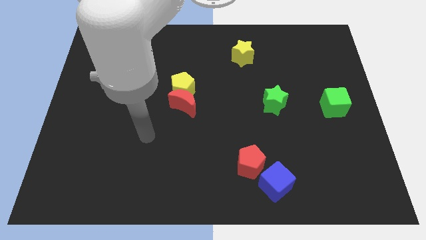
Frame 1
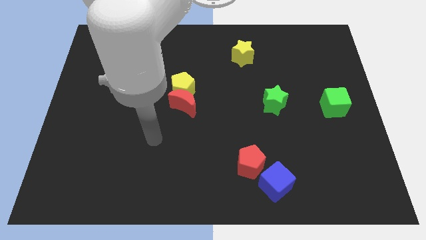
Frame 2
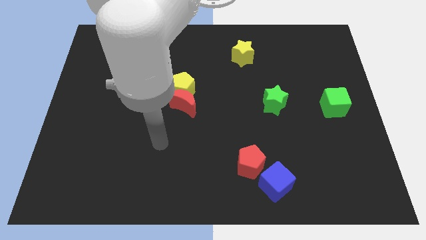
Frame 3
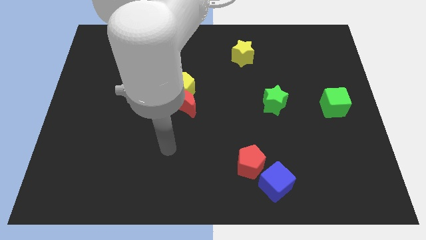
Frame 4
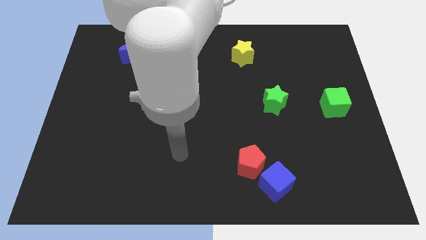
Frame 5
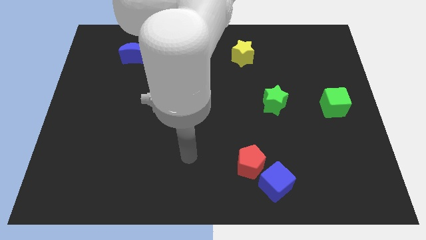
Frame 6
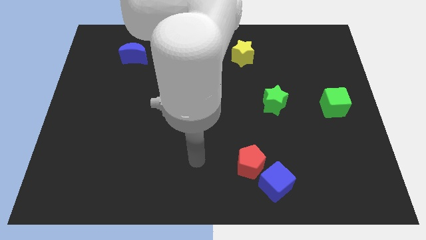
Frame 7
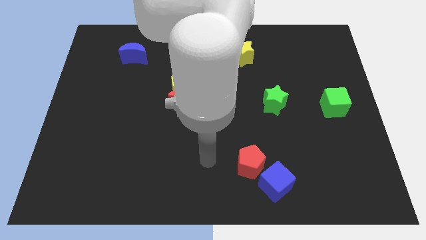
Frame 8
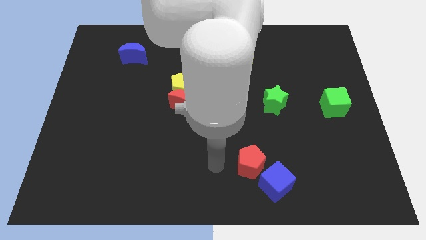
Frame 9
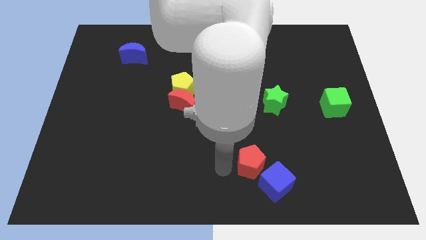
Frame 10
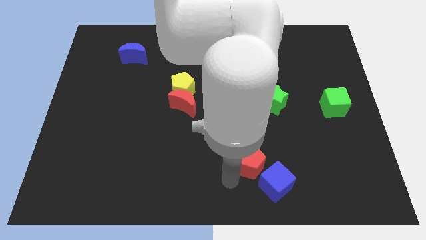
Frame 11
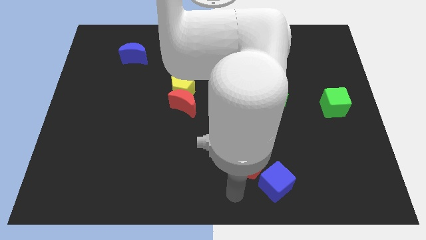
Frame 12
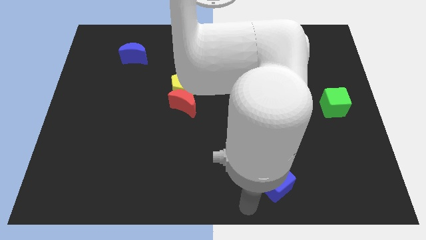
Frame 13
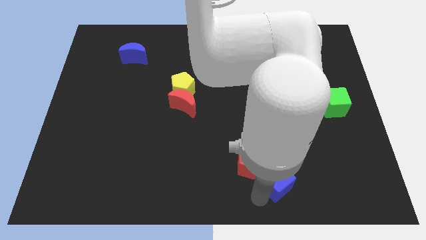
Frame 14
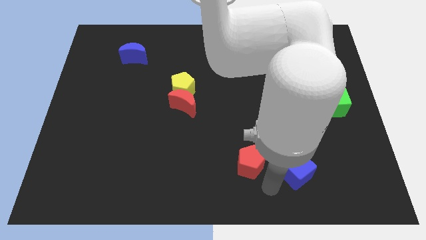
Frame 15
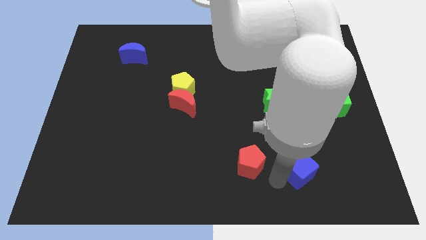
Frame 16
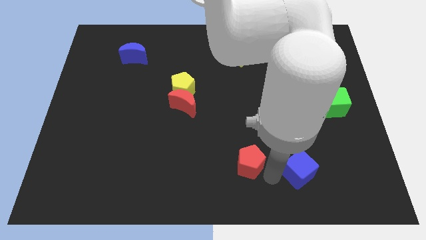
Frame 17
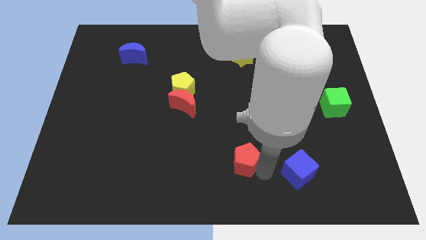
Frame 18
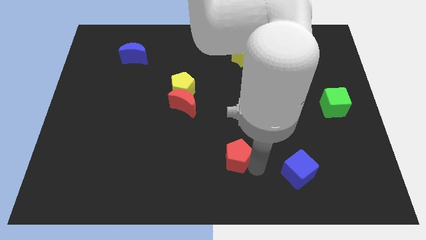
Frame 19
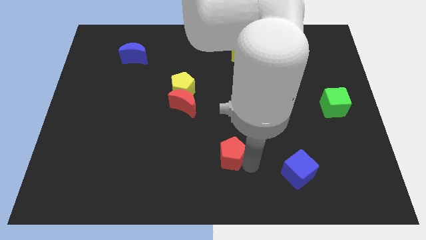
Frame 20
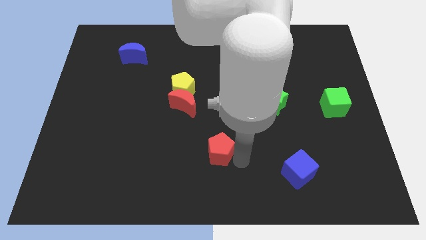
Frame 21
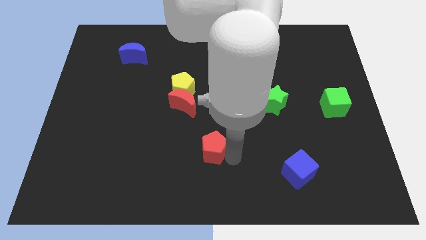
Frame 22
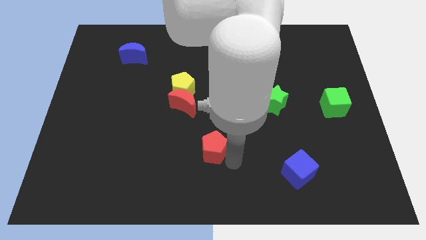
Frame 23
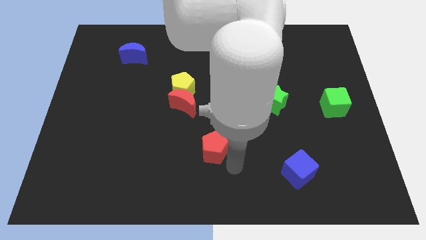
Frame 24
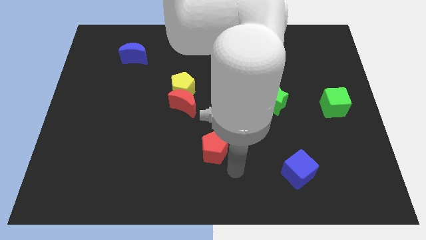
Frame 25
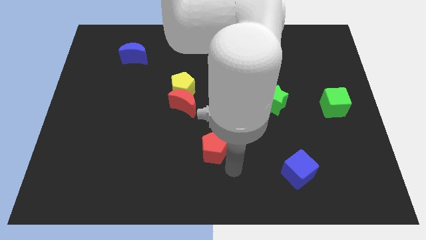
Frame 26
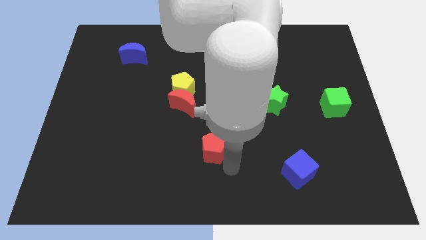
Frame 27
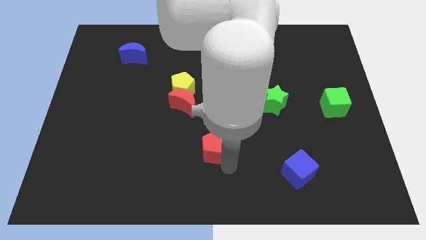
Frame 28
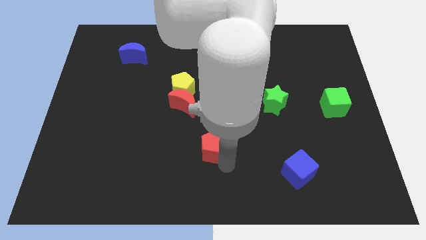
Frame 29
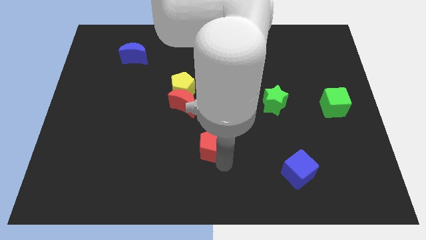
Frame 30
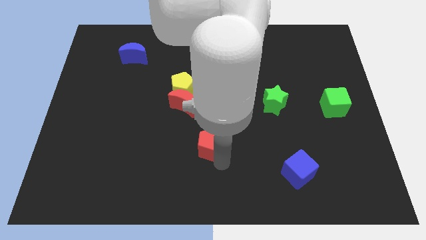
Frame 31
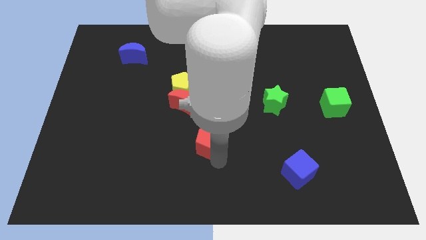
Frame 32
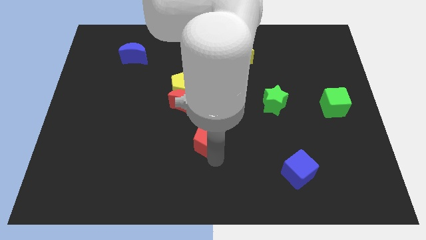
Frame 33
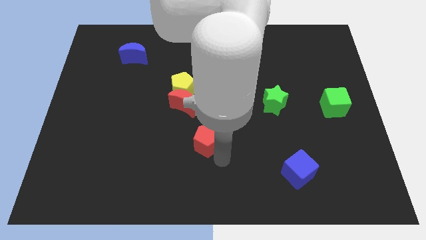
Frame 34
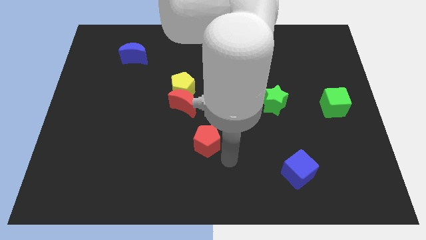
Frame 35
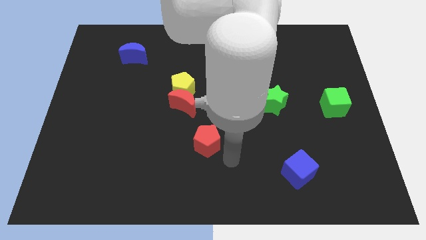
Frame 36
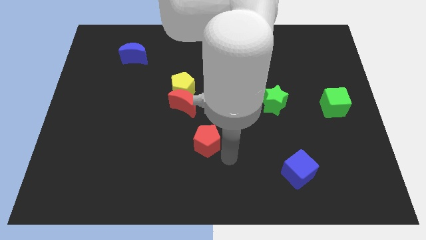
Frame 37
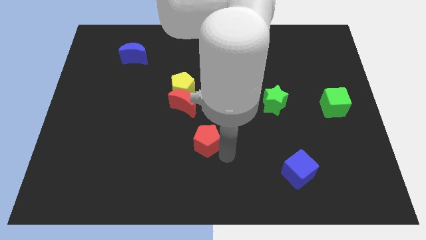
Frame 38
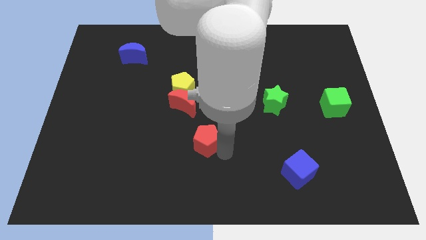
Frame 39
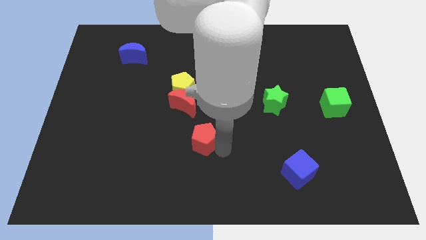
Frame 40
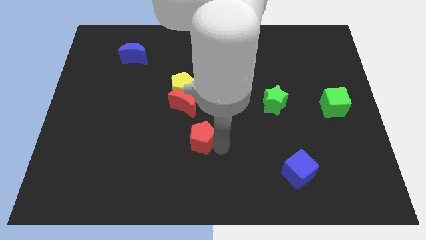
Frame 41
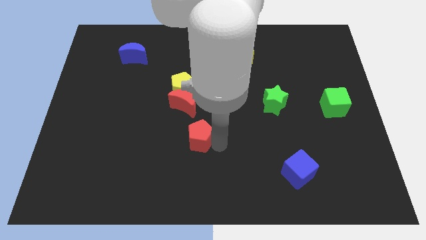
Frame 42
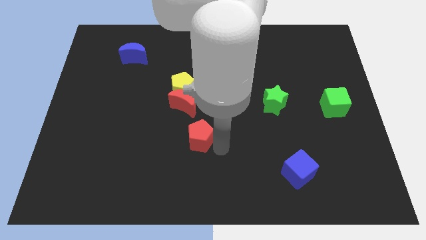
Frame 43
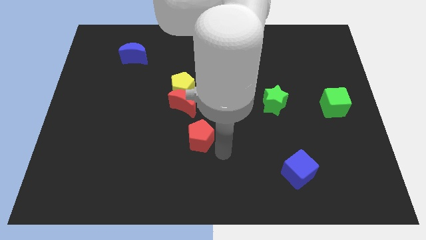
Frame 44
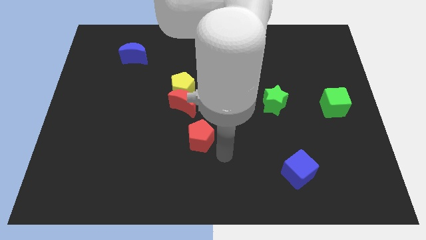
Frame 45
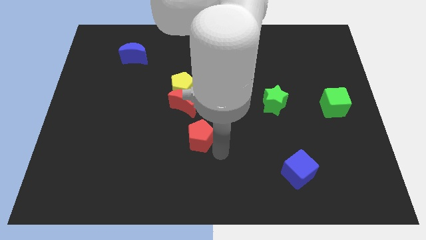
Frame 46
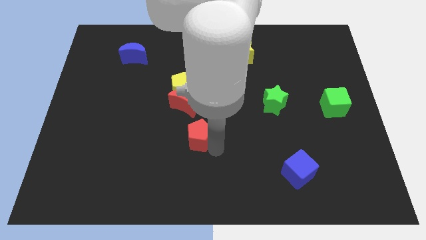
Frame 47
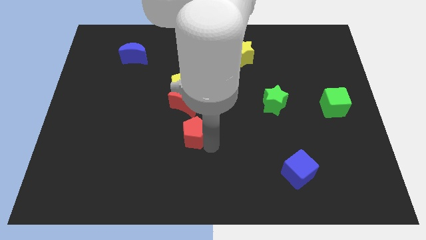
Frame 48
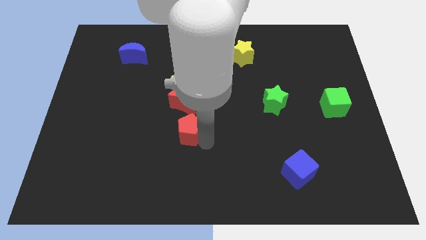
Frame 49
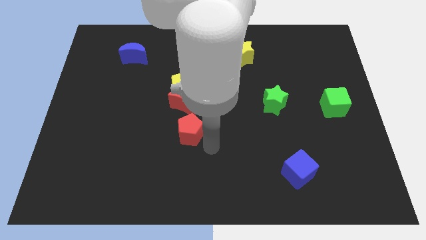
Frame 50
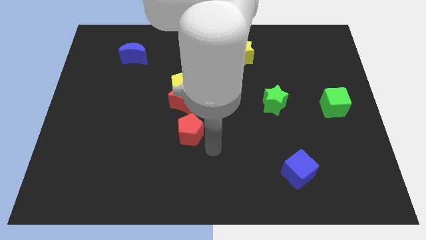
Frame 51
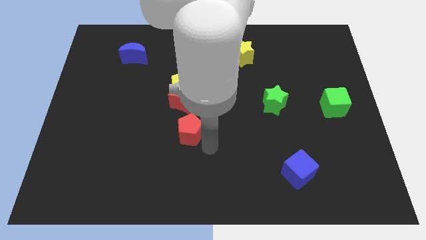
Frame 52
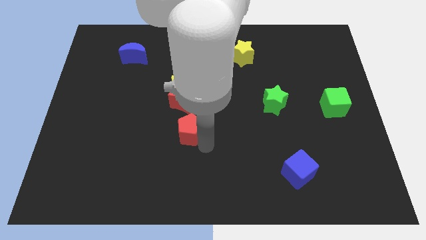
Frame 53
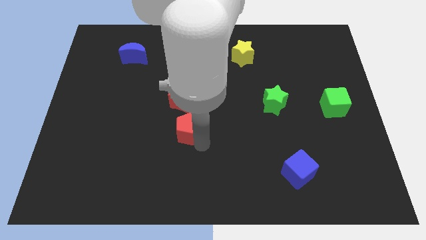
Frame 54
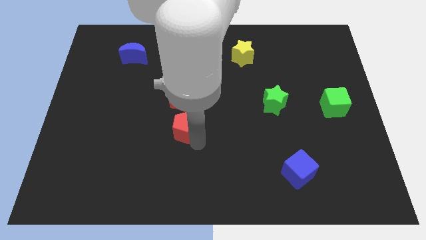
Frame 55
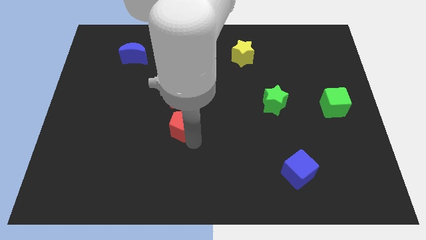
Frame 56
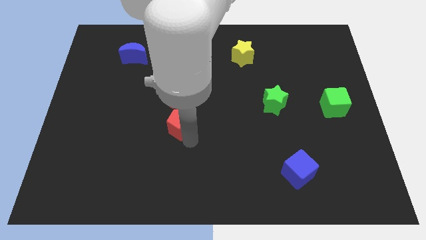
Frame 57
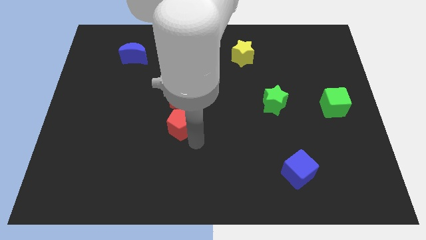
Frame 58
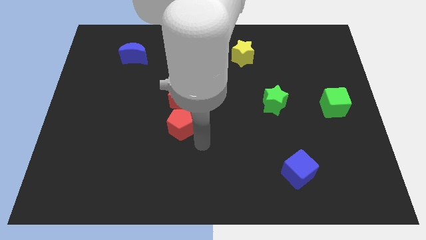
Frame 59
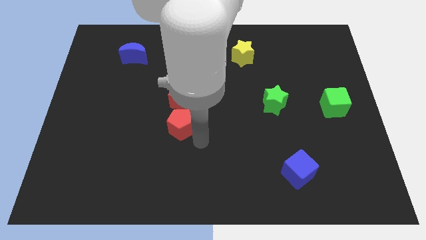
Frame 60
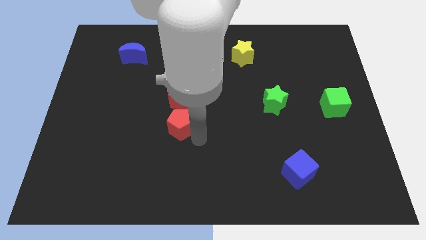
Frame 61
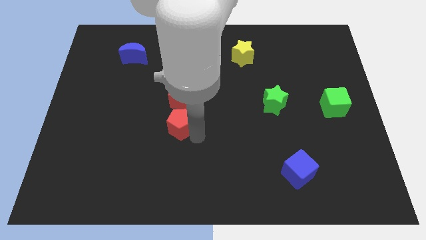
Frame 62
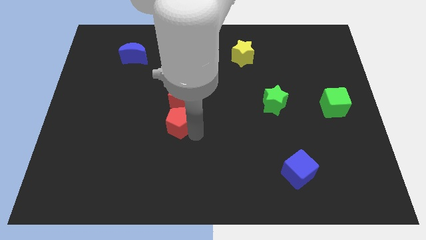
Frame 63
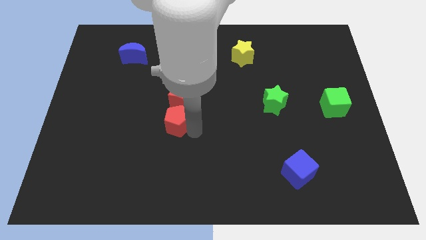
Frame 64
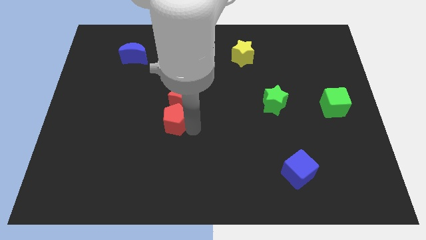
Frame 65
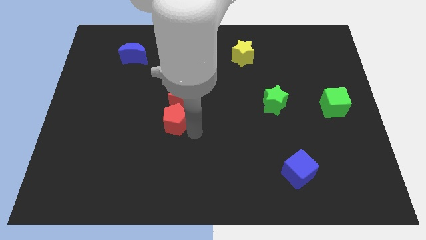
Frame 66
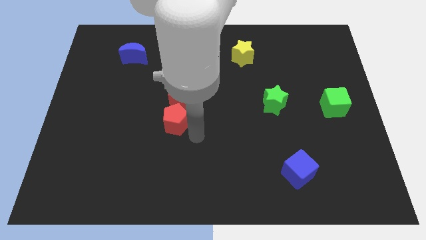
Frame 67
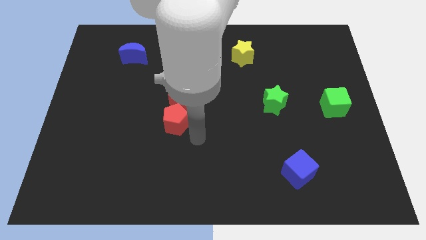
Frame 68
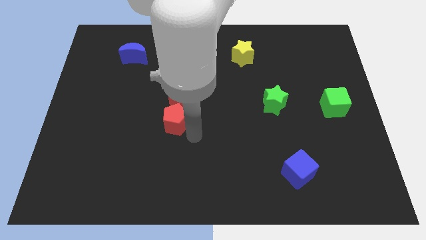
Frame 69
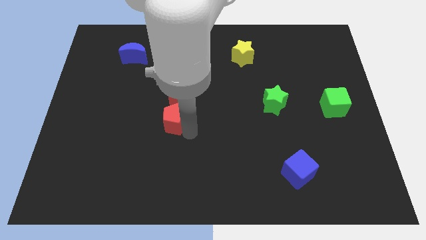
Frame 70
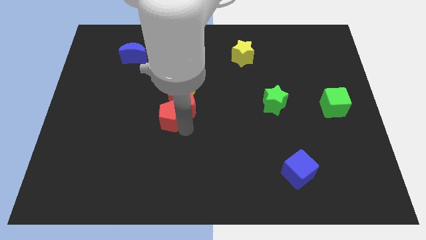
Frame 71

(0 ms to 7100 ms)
push the red pentagon upwards and left

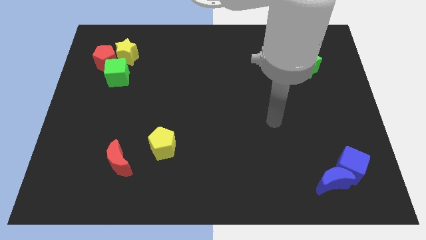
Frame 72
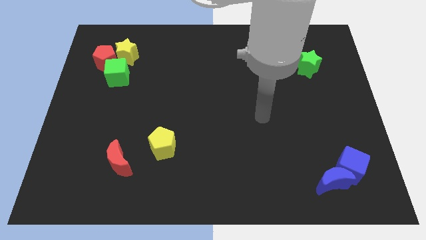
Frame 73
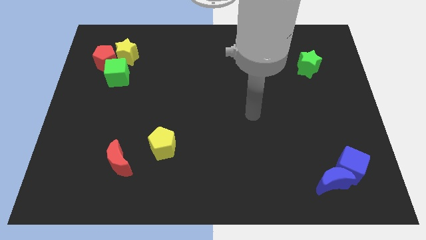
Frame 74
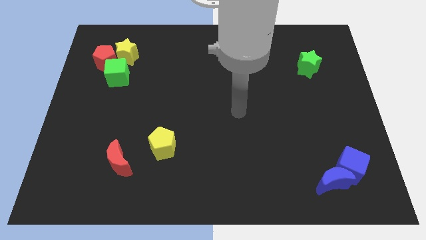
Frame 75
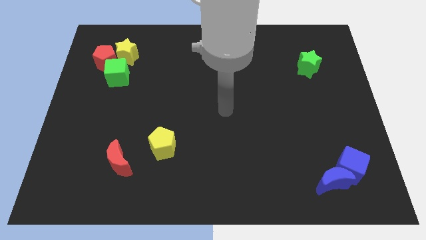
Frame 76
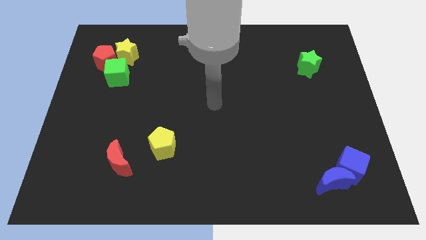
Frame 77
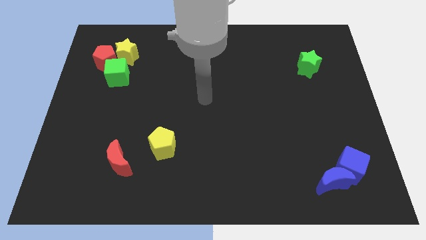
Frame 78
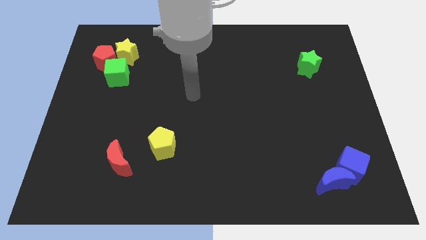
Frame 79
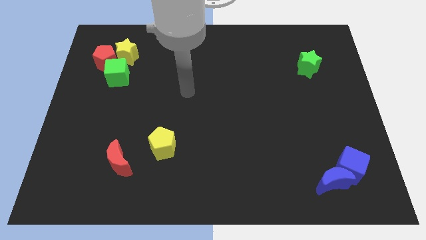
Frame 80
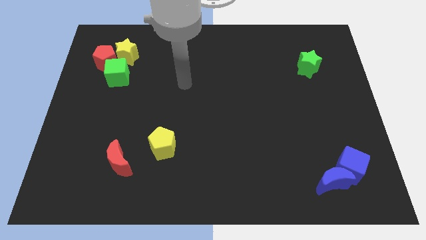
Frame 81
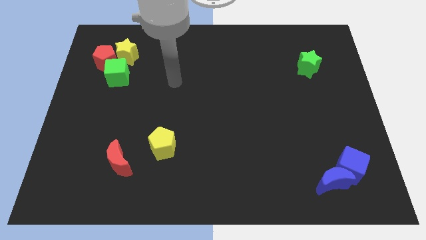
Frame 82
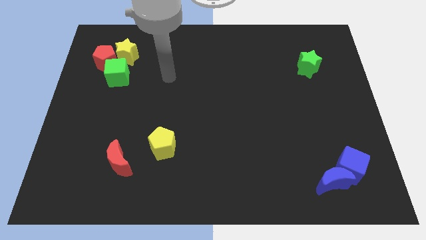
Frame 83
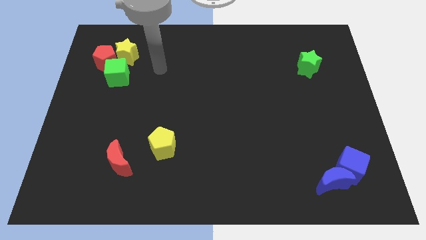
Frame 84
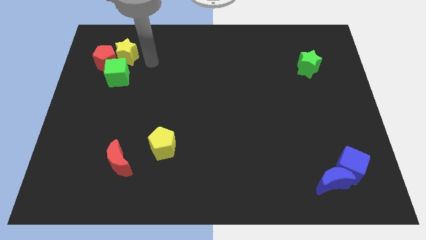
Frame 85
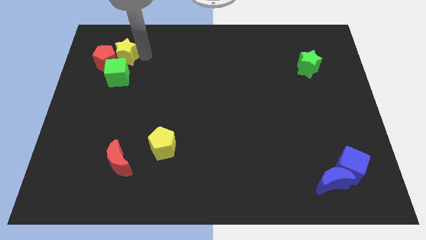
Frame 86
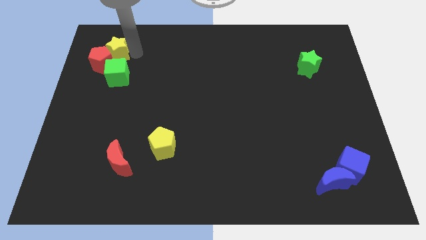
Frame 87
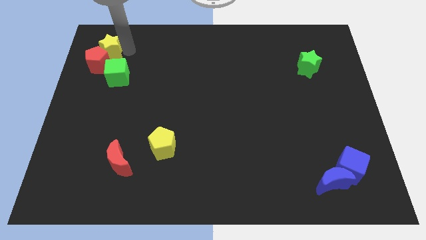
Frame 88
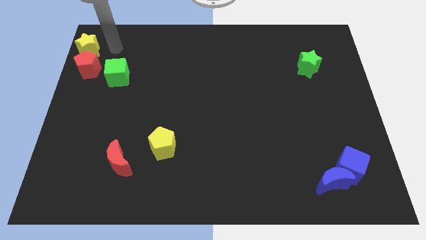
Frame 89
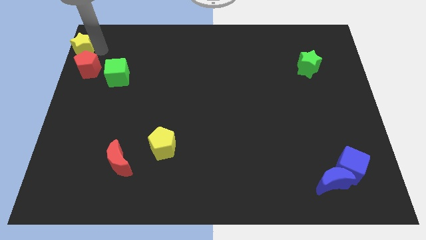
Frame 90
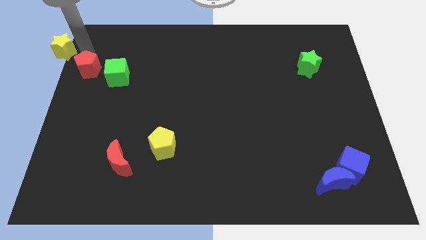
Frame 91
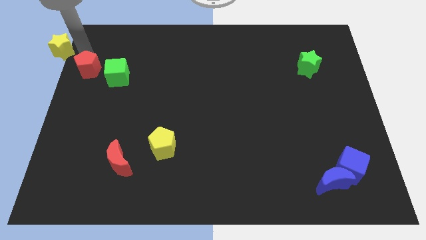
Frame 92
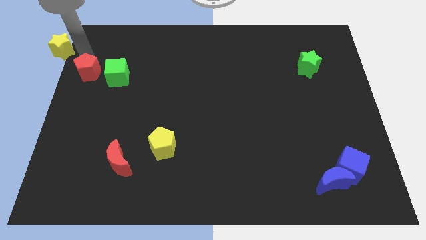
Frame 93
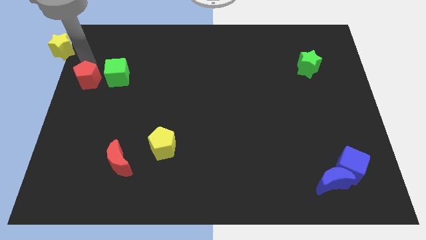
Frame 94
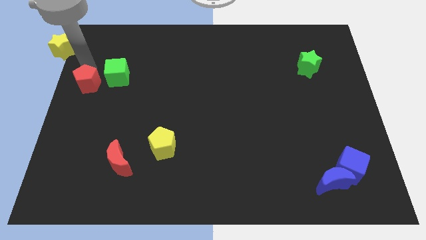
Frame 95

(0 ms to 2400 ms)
slightly push the red pentagon downwards
